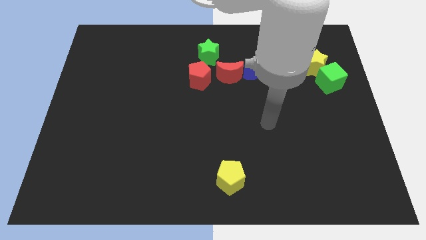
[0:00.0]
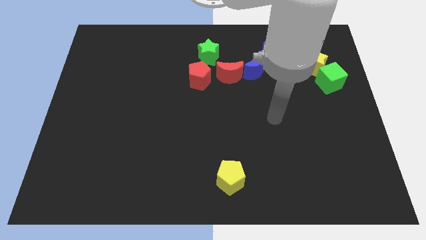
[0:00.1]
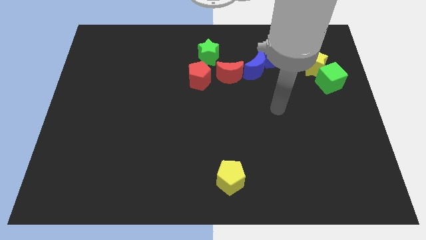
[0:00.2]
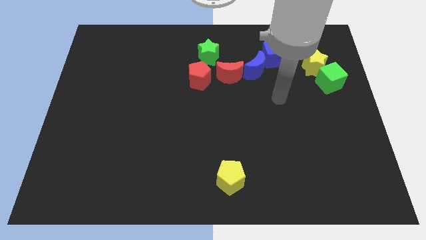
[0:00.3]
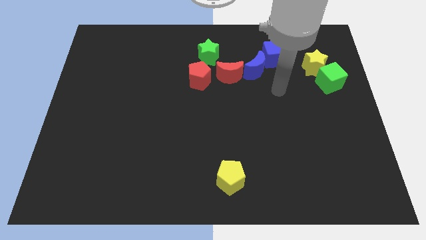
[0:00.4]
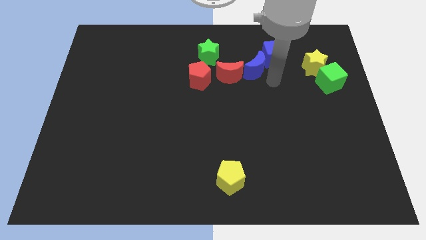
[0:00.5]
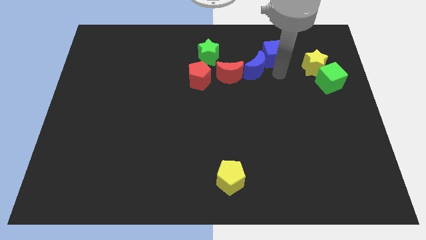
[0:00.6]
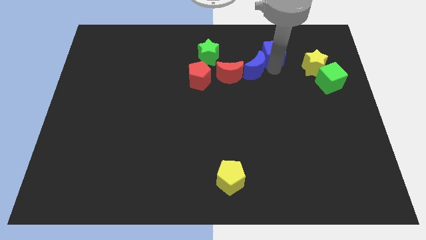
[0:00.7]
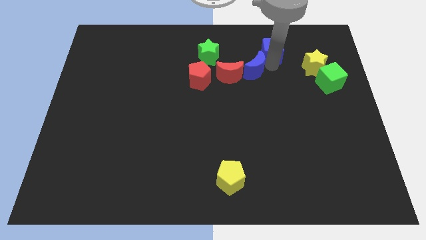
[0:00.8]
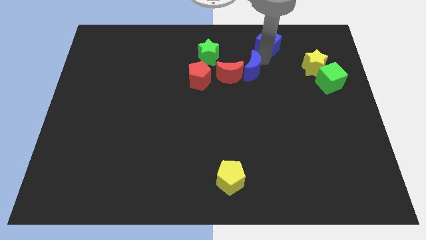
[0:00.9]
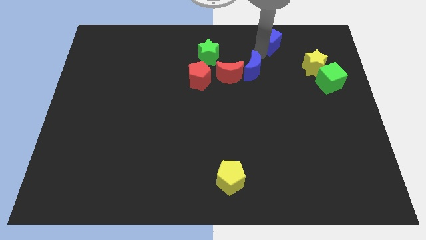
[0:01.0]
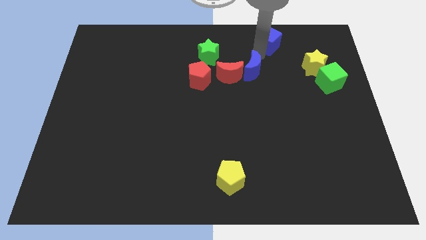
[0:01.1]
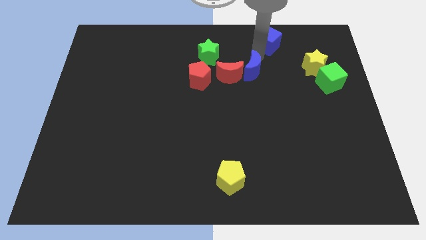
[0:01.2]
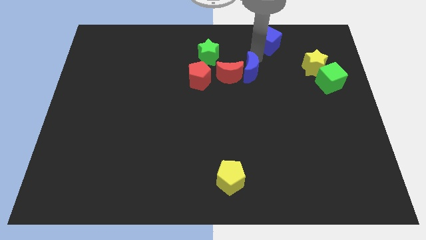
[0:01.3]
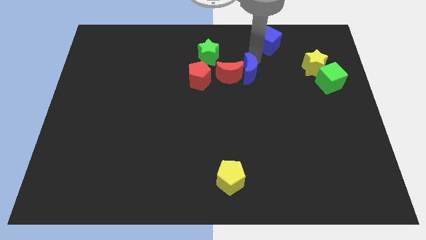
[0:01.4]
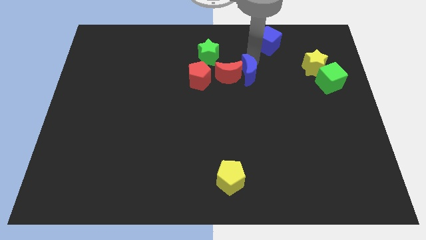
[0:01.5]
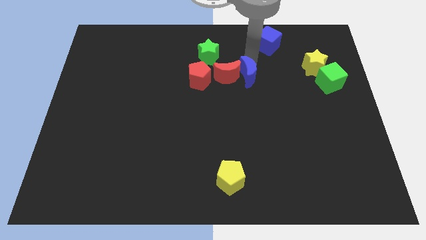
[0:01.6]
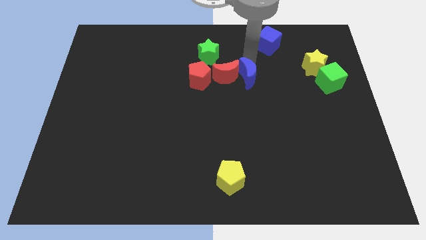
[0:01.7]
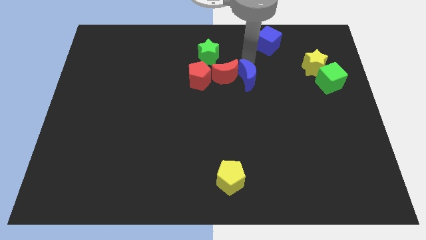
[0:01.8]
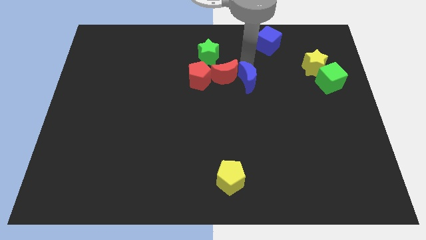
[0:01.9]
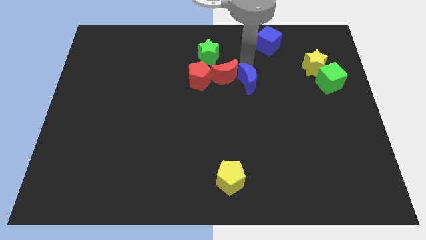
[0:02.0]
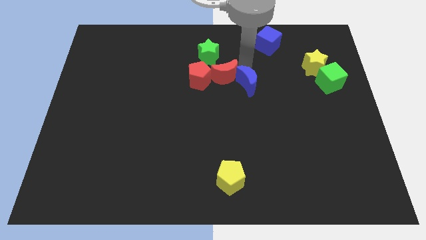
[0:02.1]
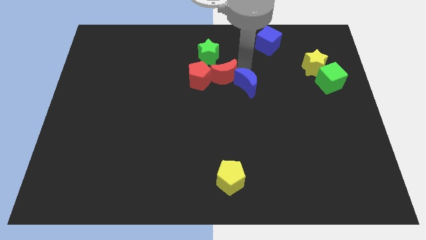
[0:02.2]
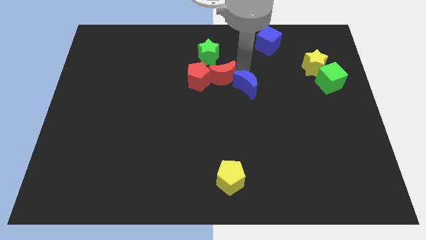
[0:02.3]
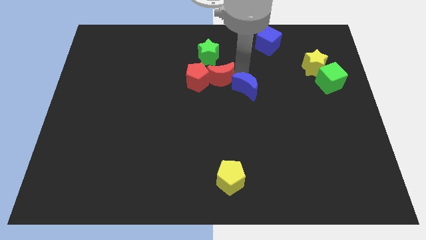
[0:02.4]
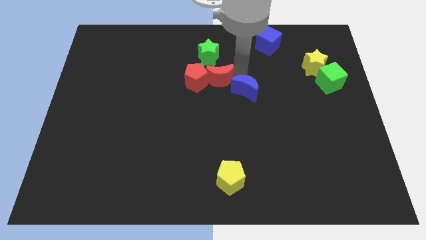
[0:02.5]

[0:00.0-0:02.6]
slightly move the blue moon diagonally down and to the left

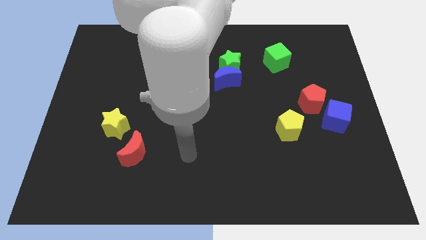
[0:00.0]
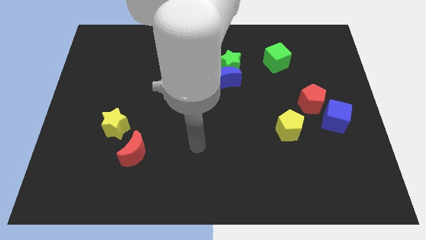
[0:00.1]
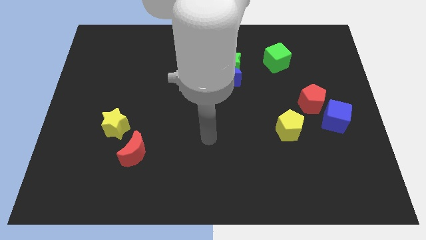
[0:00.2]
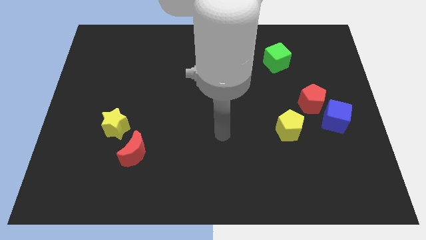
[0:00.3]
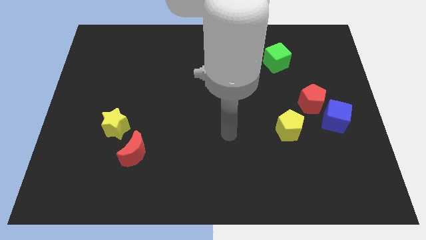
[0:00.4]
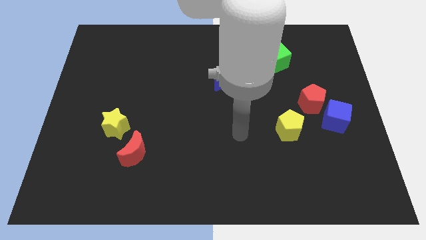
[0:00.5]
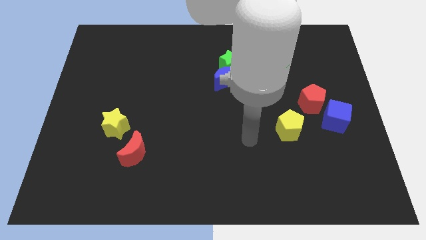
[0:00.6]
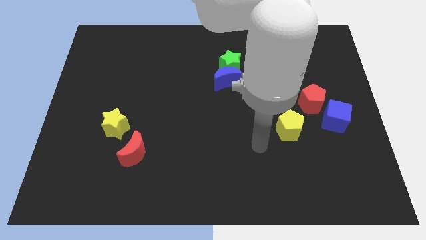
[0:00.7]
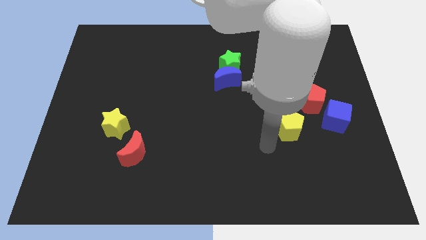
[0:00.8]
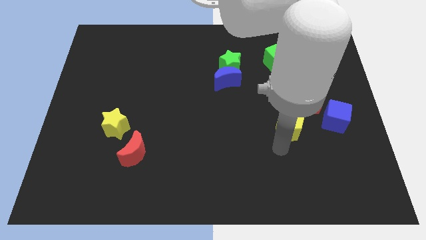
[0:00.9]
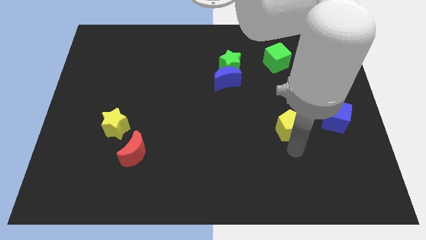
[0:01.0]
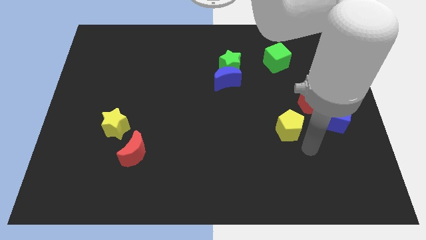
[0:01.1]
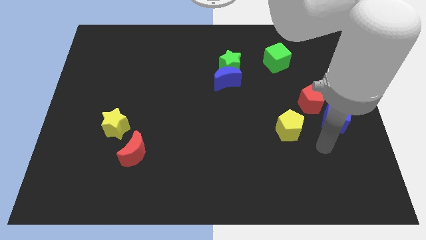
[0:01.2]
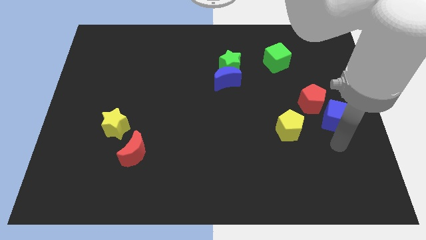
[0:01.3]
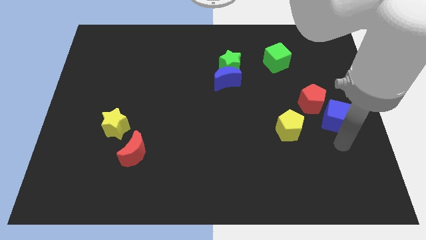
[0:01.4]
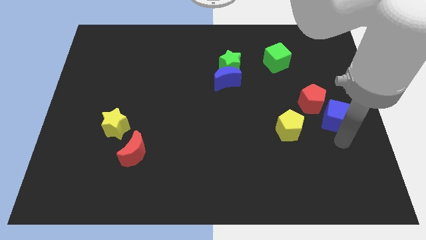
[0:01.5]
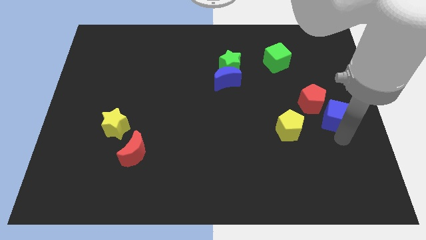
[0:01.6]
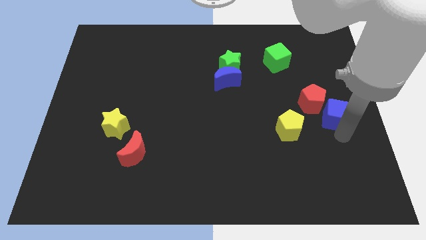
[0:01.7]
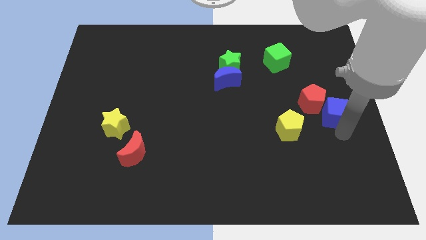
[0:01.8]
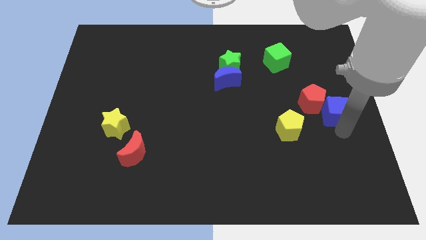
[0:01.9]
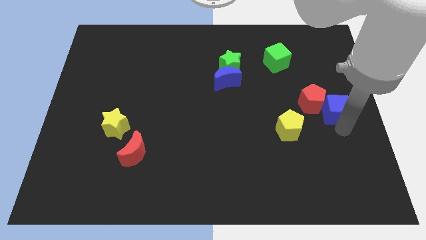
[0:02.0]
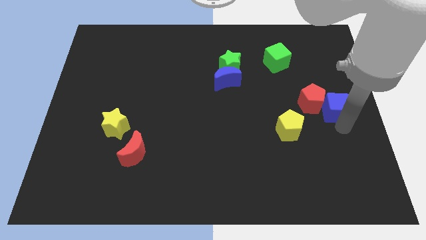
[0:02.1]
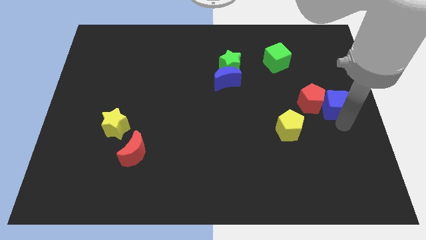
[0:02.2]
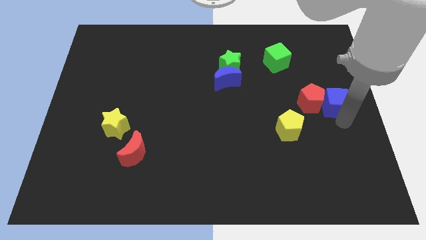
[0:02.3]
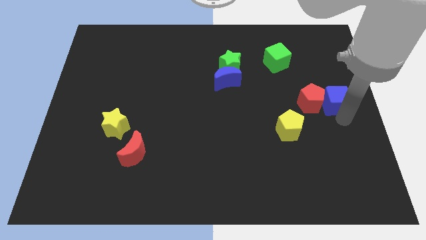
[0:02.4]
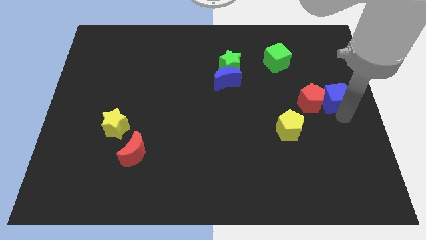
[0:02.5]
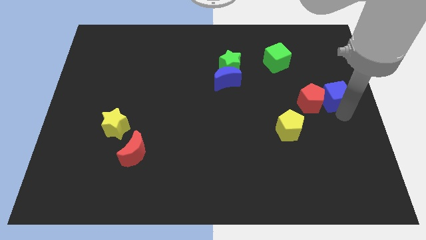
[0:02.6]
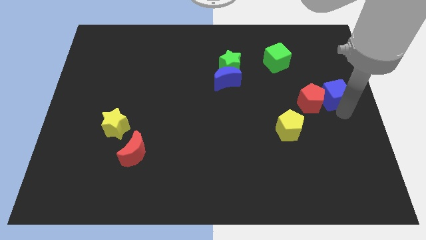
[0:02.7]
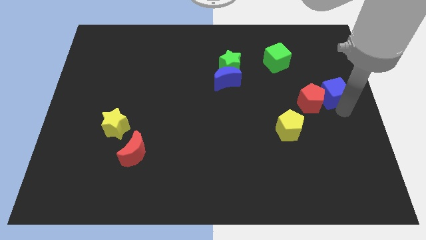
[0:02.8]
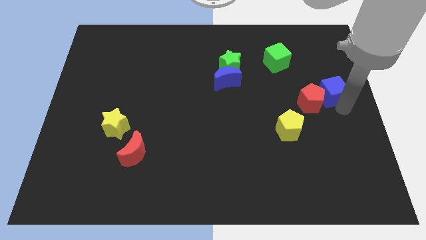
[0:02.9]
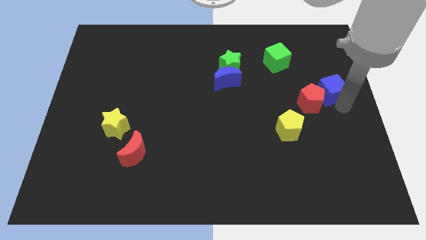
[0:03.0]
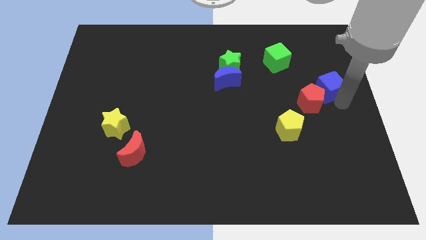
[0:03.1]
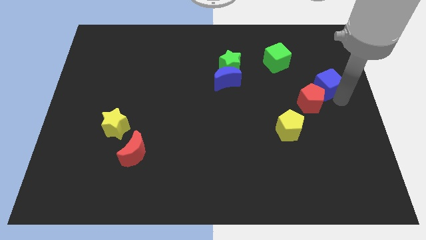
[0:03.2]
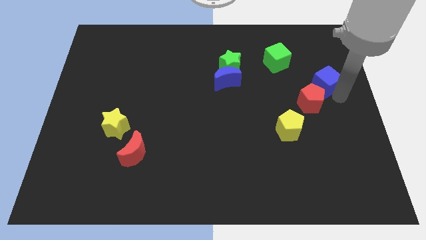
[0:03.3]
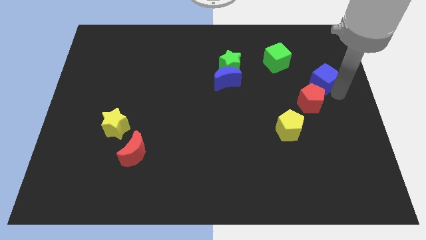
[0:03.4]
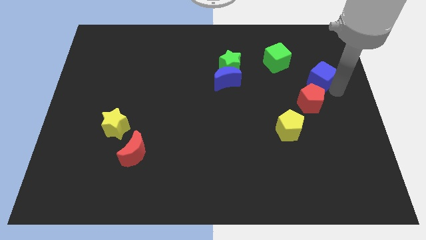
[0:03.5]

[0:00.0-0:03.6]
slightly slide the blue cube upwards and left diagonally

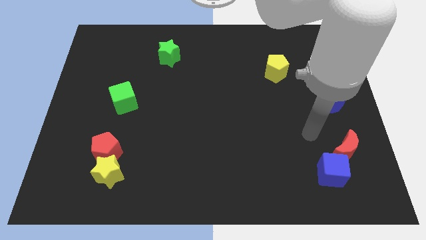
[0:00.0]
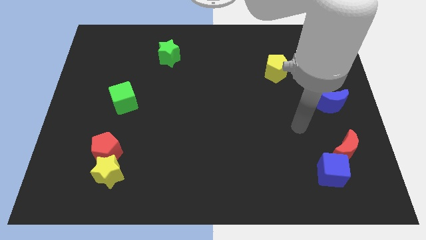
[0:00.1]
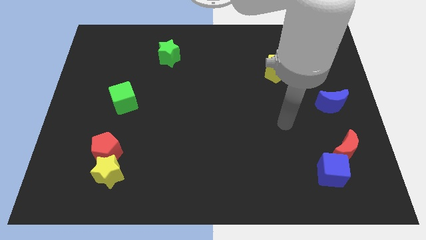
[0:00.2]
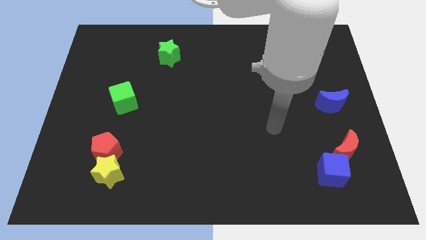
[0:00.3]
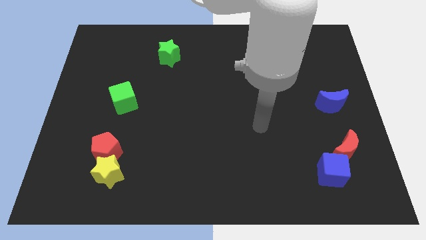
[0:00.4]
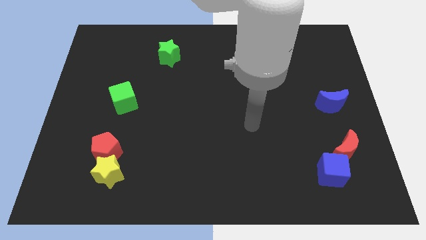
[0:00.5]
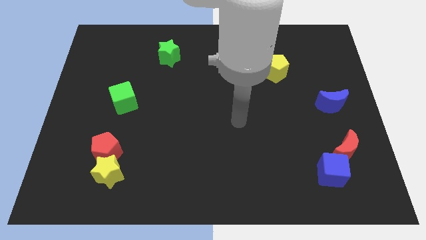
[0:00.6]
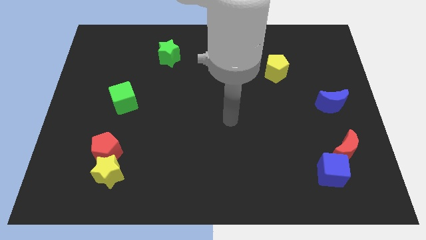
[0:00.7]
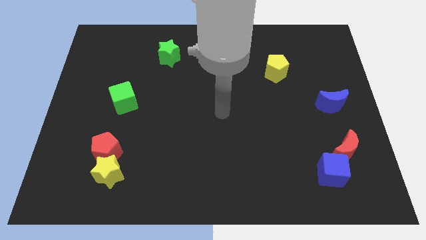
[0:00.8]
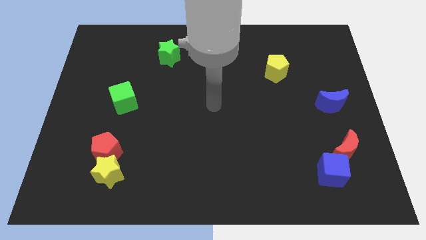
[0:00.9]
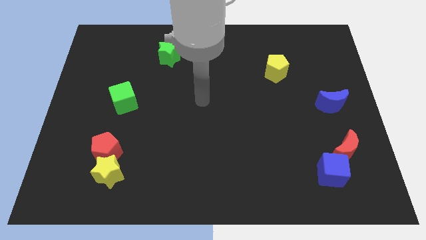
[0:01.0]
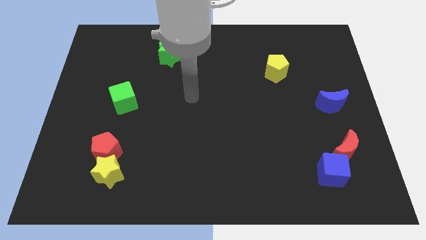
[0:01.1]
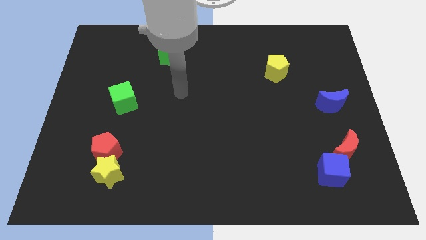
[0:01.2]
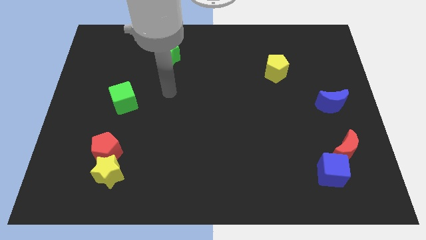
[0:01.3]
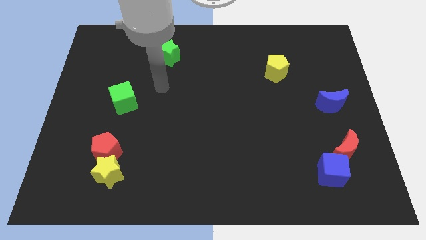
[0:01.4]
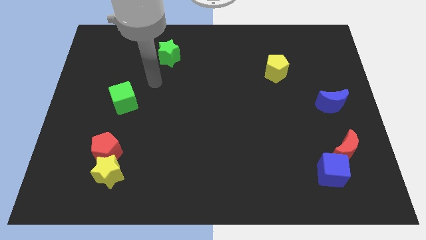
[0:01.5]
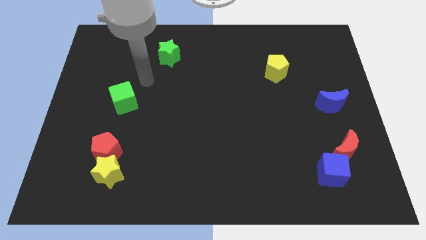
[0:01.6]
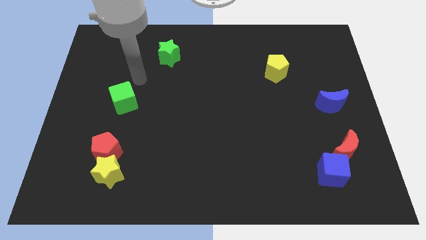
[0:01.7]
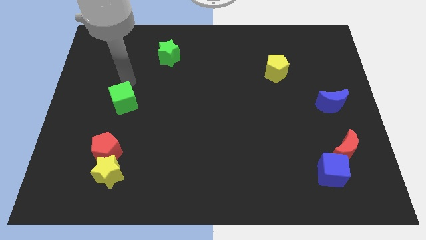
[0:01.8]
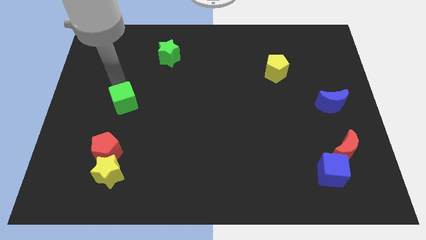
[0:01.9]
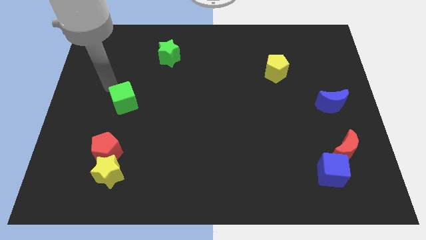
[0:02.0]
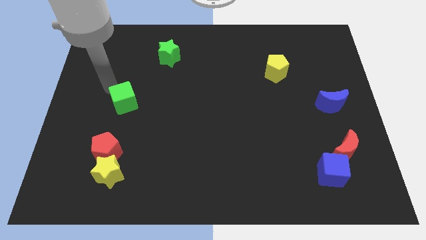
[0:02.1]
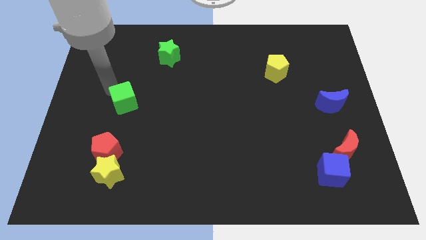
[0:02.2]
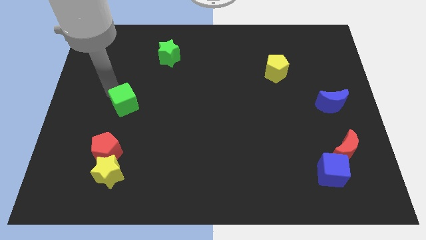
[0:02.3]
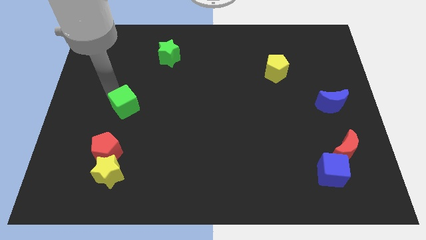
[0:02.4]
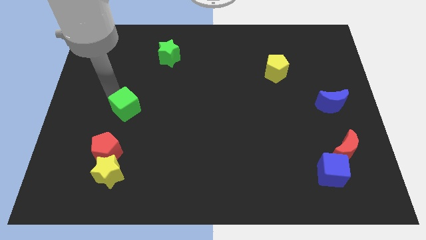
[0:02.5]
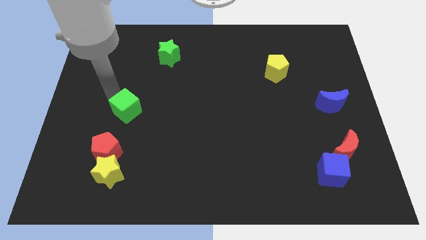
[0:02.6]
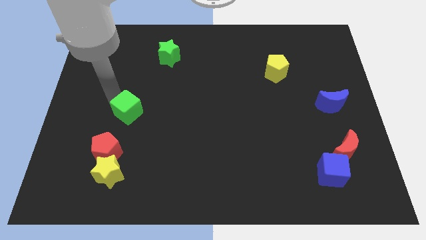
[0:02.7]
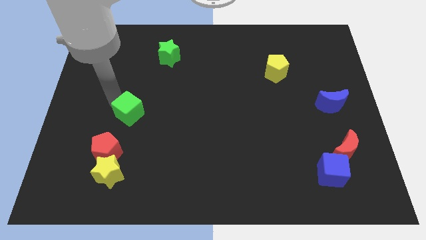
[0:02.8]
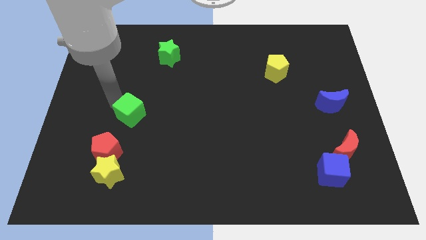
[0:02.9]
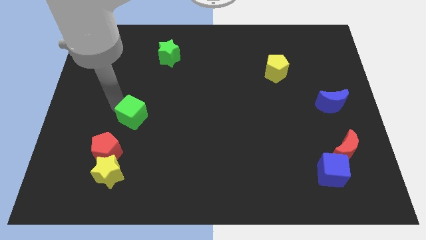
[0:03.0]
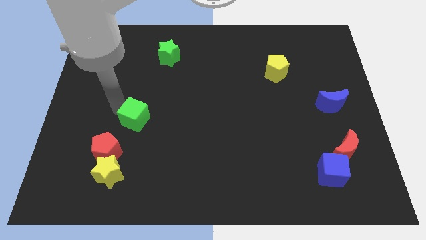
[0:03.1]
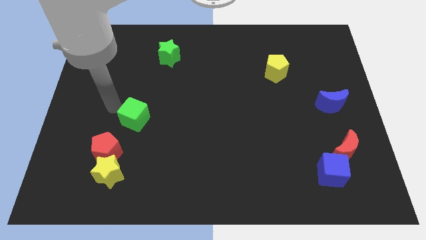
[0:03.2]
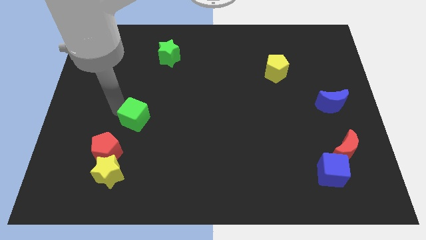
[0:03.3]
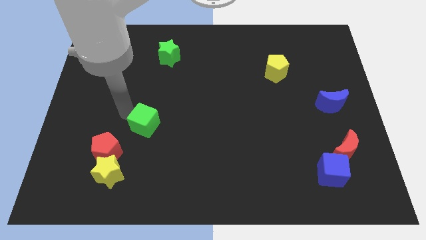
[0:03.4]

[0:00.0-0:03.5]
move the green cube down and to the right diagonally a little bit
